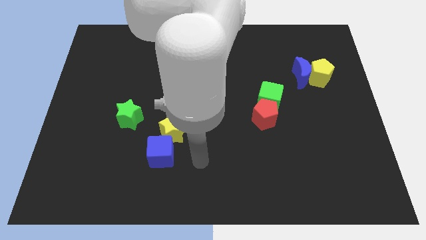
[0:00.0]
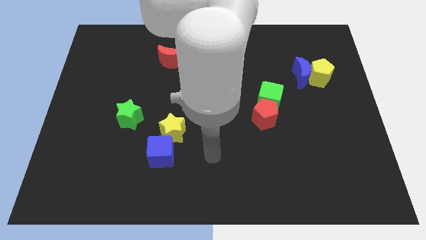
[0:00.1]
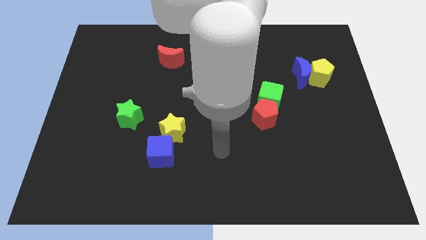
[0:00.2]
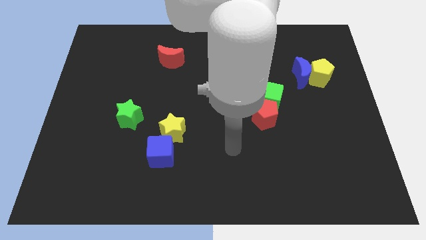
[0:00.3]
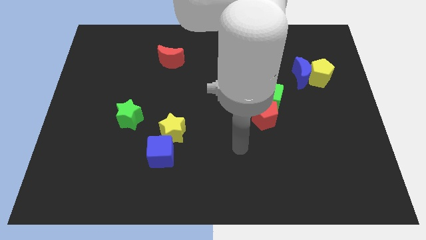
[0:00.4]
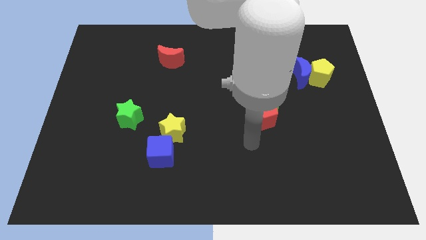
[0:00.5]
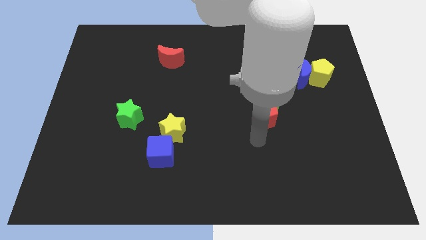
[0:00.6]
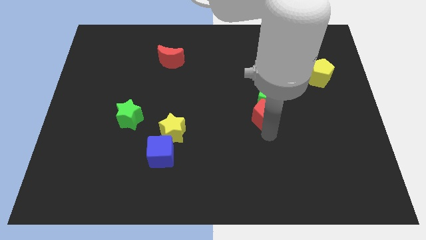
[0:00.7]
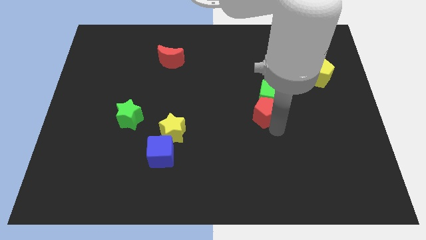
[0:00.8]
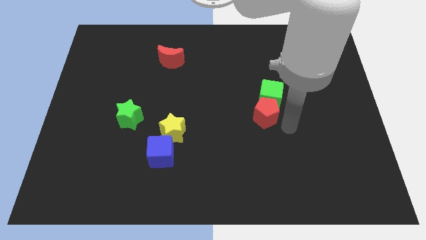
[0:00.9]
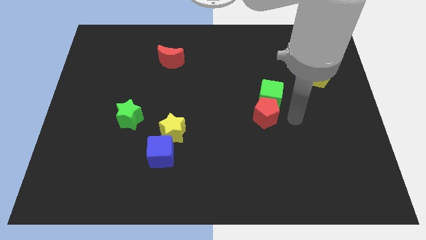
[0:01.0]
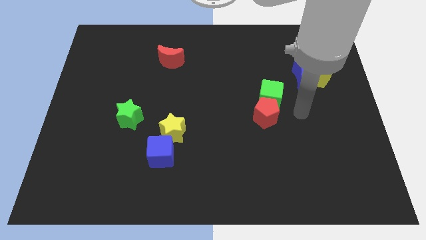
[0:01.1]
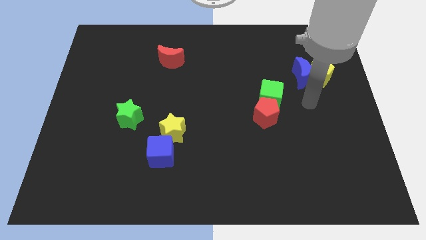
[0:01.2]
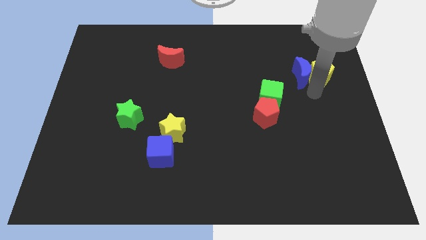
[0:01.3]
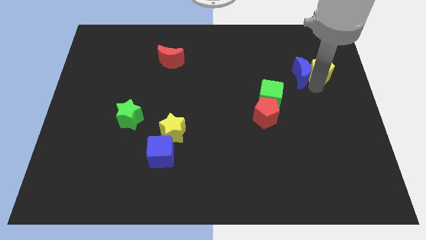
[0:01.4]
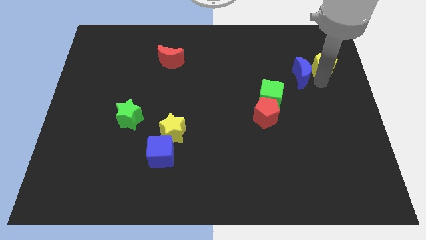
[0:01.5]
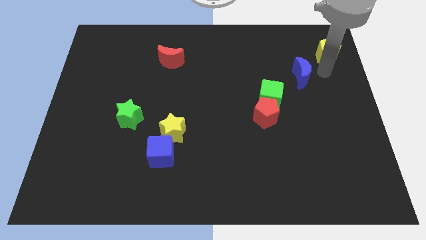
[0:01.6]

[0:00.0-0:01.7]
separate the blue moon from the yellow pentagon

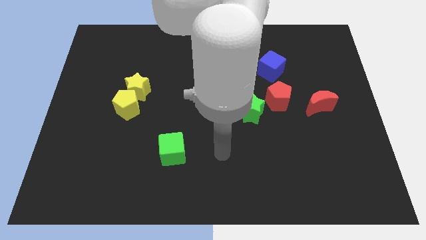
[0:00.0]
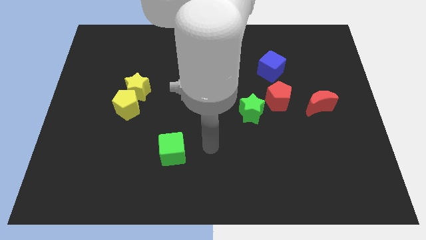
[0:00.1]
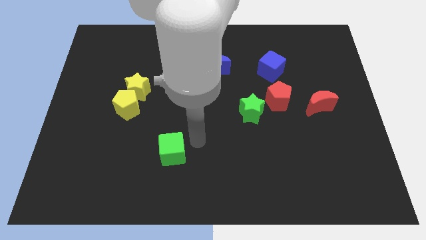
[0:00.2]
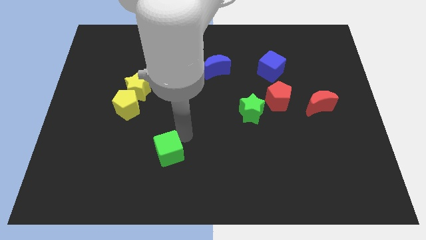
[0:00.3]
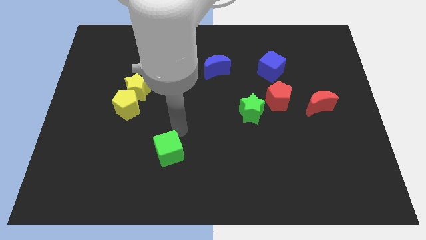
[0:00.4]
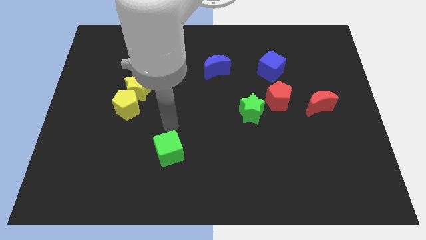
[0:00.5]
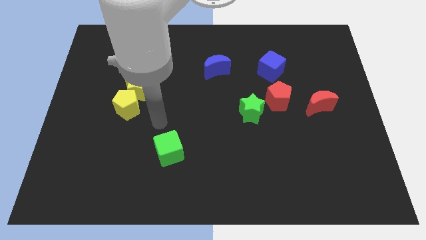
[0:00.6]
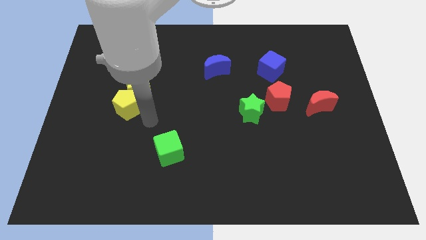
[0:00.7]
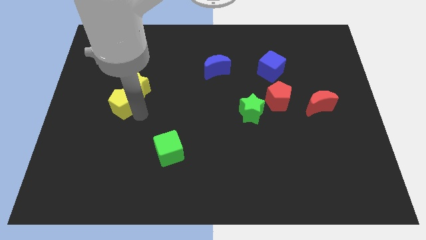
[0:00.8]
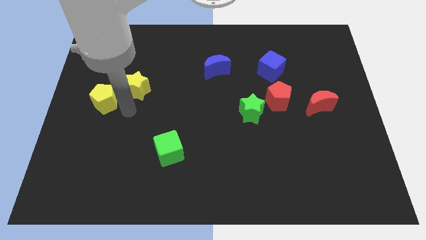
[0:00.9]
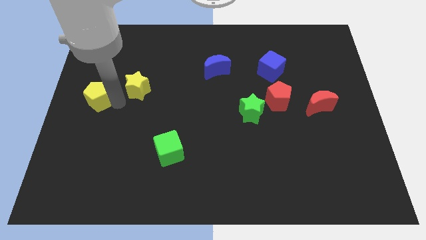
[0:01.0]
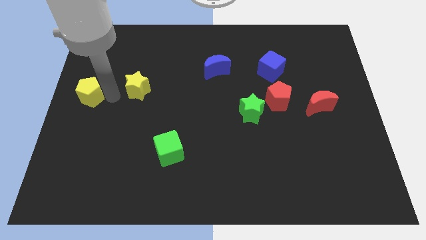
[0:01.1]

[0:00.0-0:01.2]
move the yellow star away from the yellow pentagon

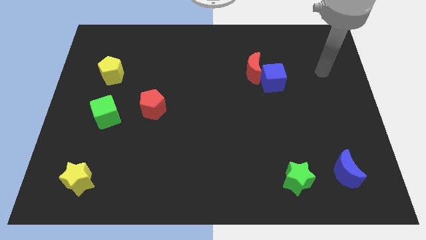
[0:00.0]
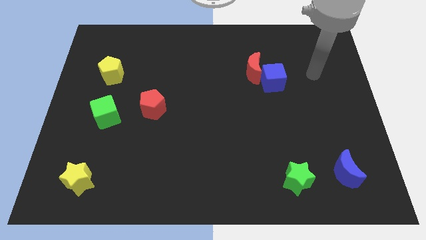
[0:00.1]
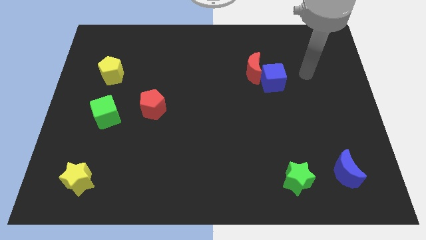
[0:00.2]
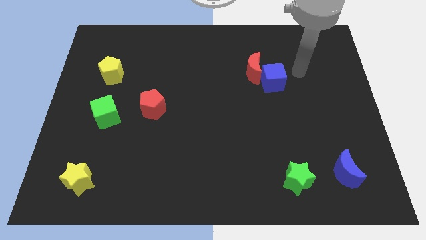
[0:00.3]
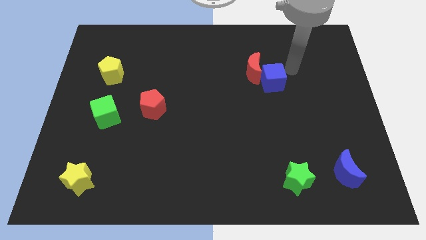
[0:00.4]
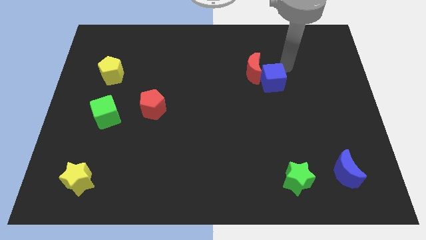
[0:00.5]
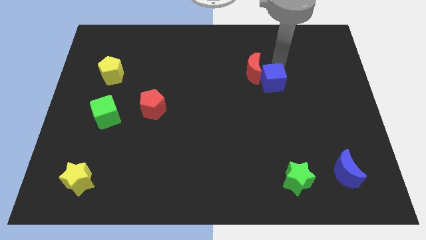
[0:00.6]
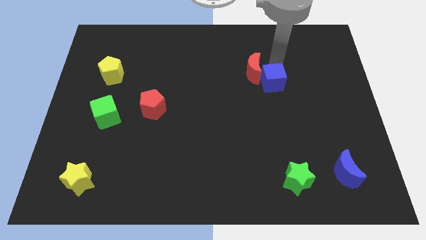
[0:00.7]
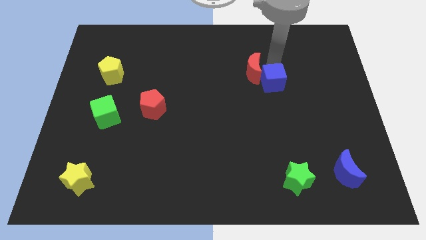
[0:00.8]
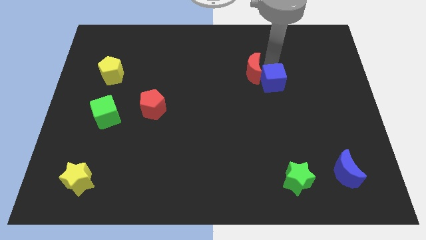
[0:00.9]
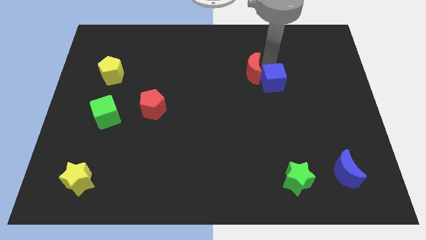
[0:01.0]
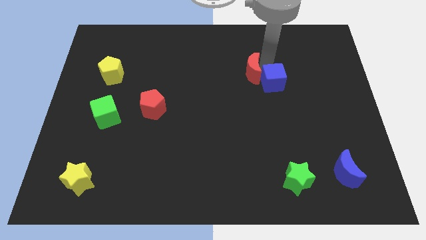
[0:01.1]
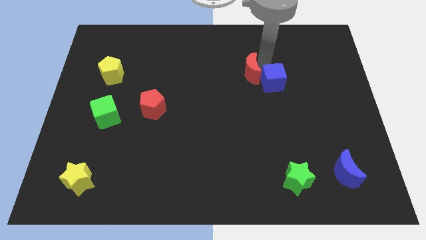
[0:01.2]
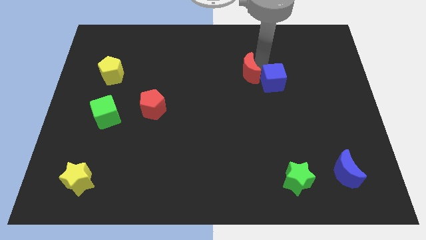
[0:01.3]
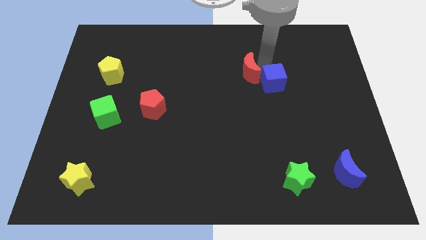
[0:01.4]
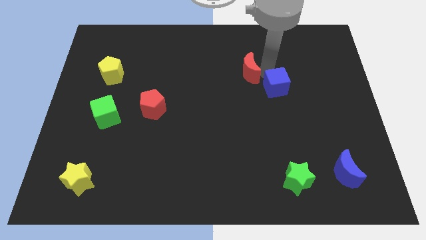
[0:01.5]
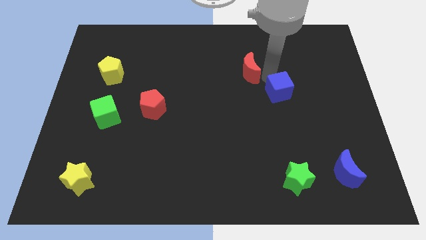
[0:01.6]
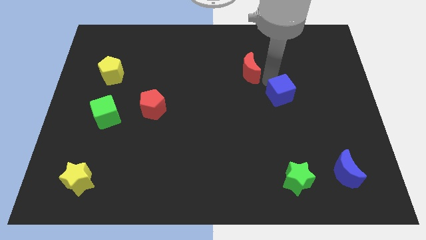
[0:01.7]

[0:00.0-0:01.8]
separate the red moon from the blue cube

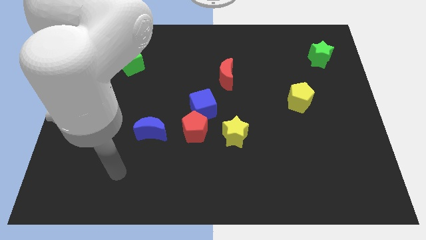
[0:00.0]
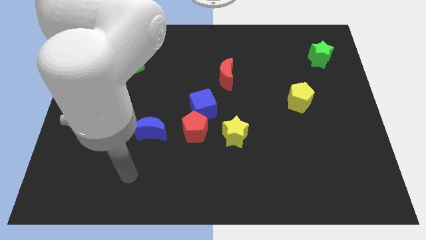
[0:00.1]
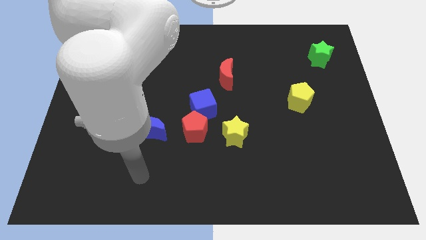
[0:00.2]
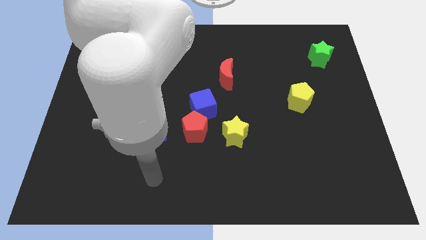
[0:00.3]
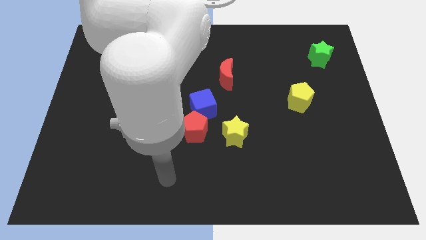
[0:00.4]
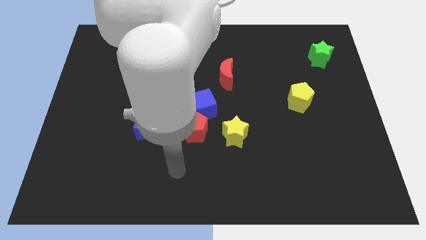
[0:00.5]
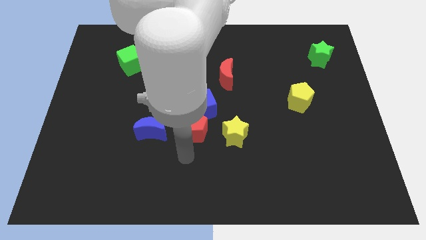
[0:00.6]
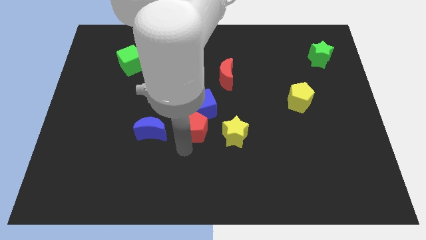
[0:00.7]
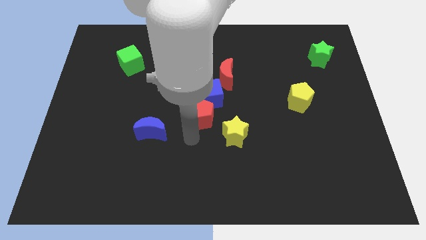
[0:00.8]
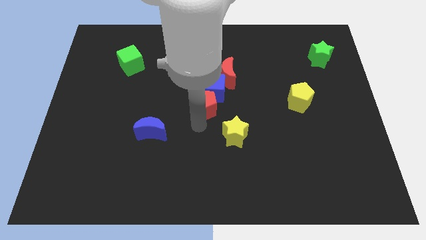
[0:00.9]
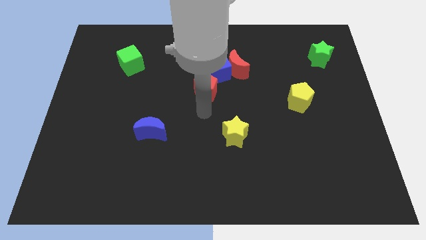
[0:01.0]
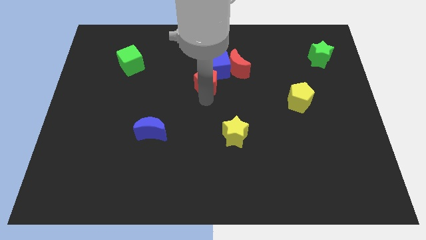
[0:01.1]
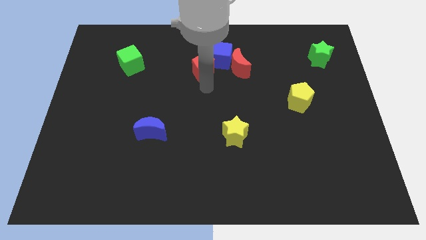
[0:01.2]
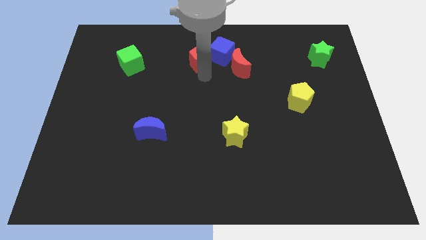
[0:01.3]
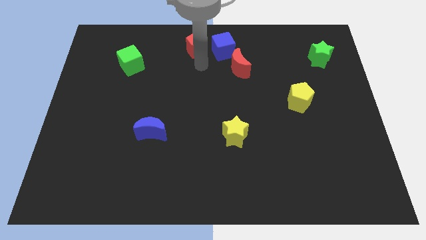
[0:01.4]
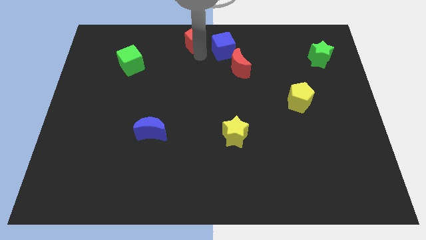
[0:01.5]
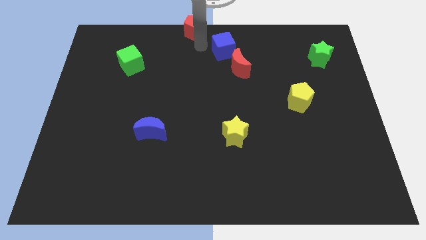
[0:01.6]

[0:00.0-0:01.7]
separate the blue cube from the red pentagon

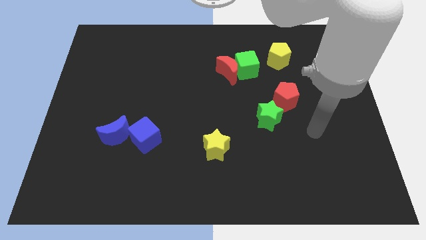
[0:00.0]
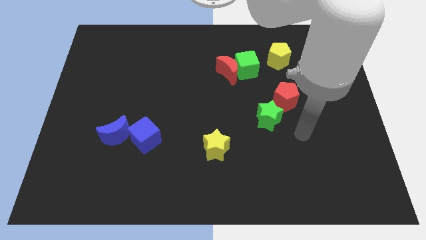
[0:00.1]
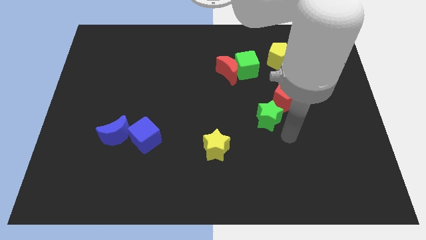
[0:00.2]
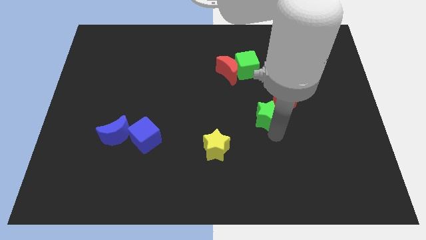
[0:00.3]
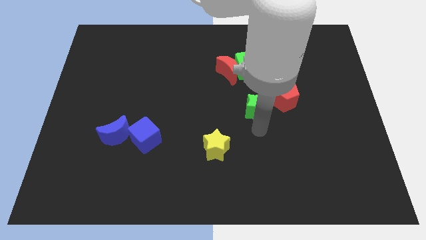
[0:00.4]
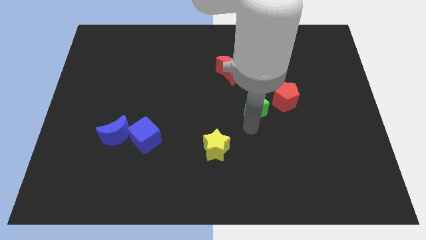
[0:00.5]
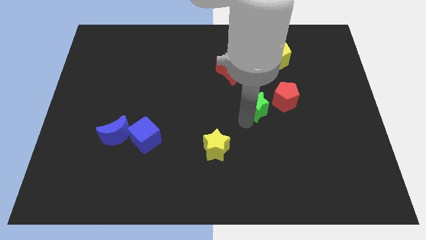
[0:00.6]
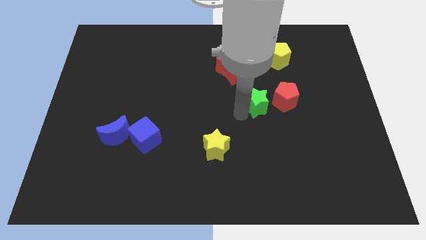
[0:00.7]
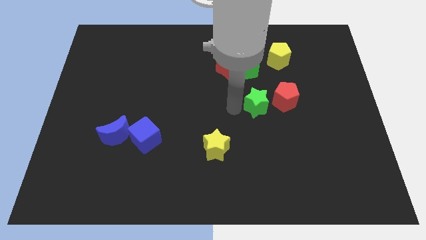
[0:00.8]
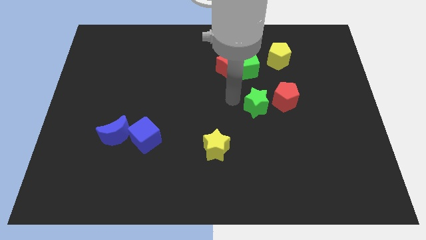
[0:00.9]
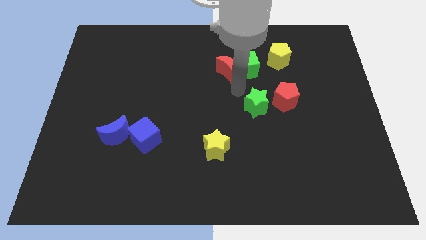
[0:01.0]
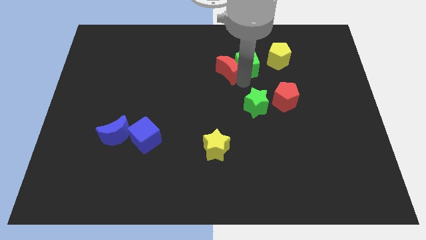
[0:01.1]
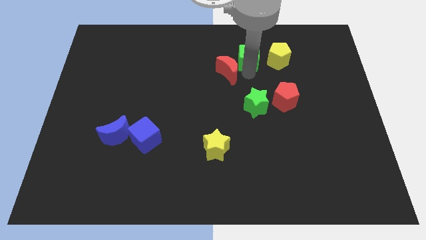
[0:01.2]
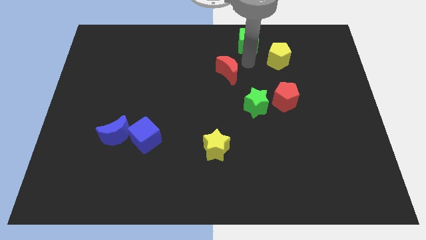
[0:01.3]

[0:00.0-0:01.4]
separate the red moon from the green cube

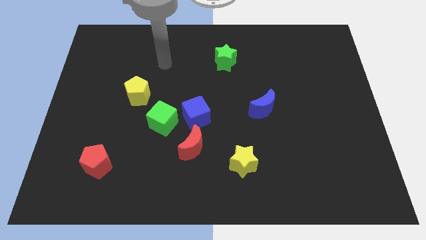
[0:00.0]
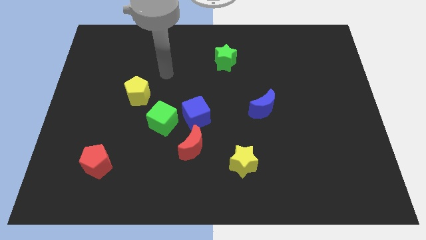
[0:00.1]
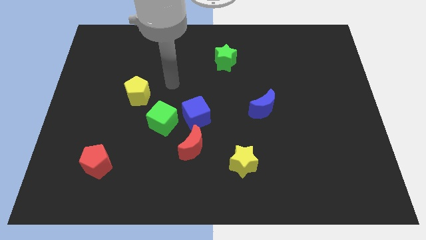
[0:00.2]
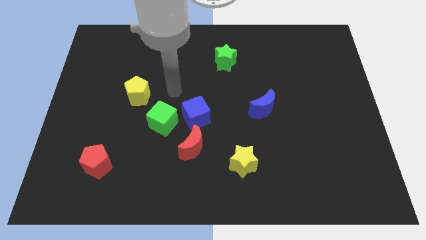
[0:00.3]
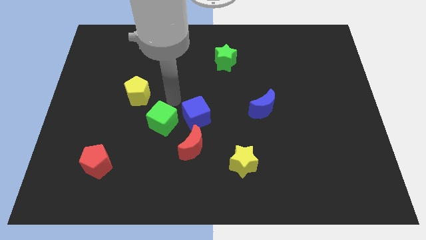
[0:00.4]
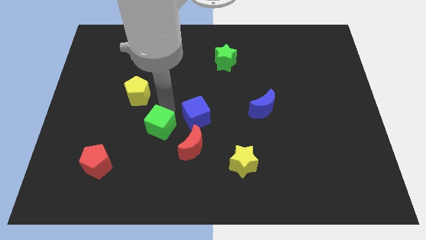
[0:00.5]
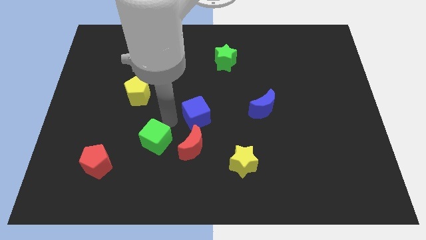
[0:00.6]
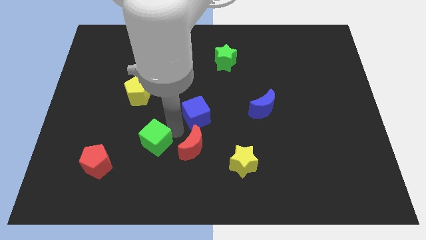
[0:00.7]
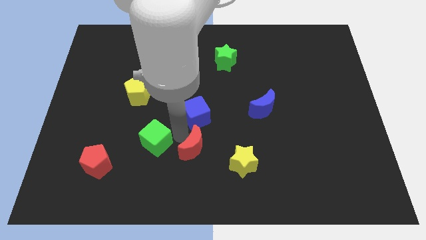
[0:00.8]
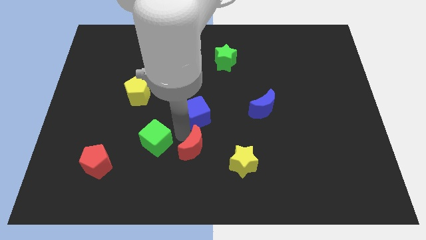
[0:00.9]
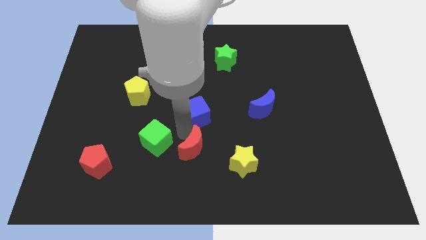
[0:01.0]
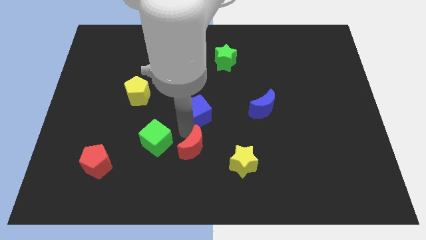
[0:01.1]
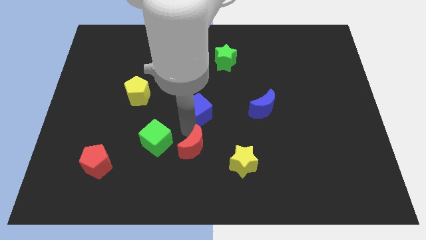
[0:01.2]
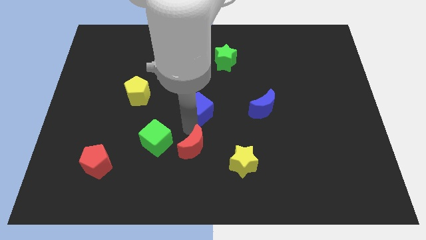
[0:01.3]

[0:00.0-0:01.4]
move the blue cube away from the green cube and red moon
